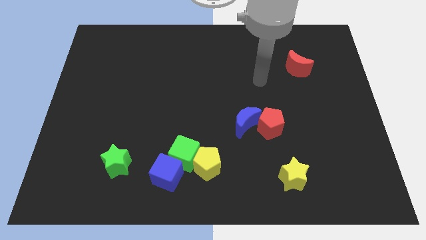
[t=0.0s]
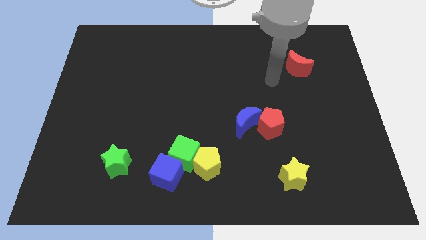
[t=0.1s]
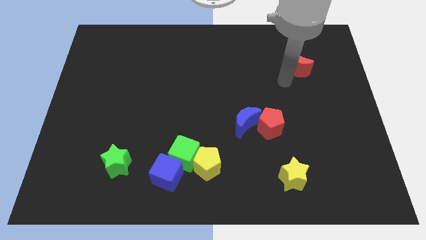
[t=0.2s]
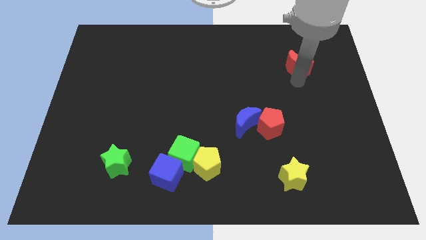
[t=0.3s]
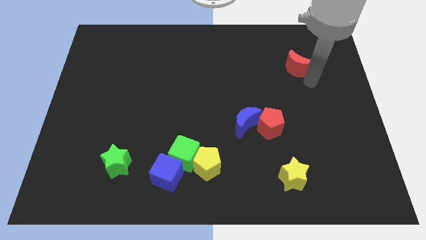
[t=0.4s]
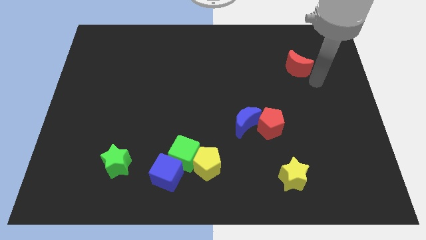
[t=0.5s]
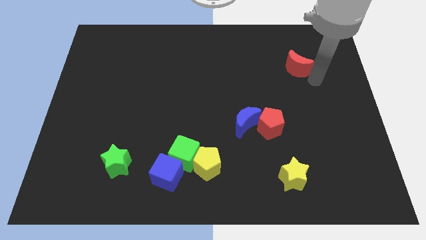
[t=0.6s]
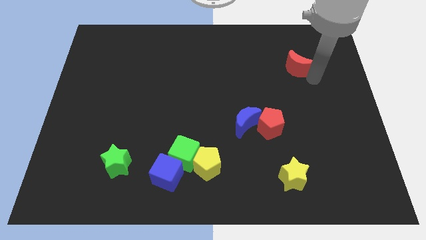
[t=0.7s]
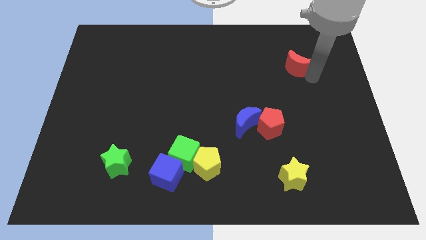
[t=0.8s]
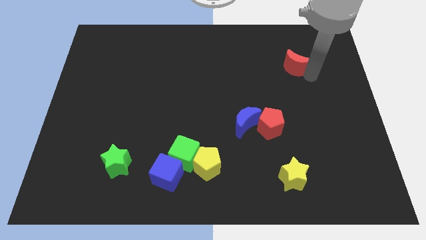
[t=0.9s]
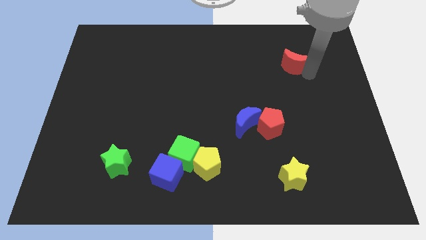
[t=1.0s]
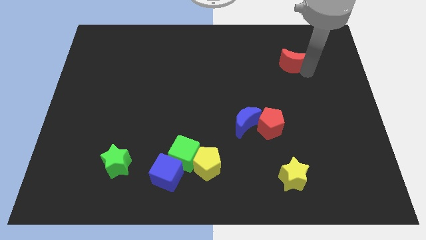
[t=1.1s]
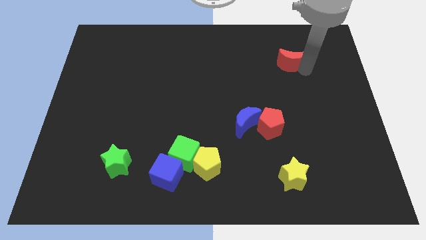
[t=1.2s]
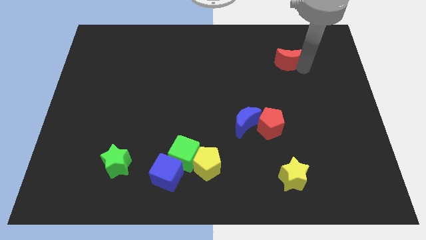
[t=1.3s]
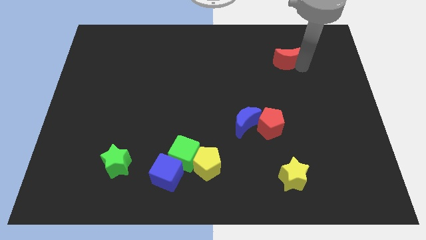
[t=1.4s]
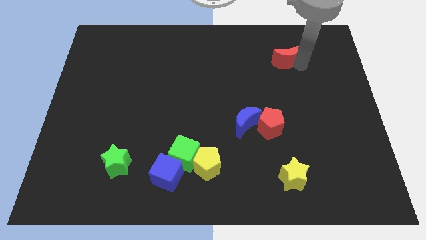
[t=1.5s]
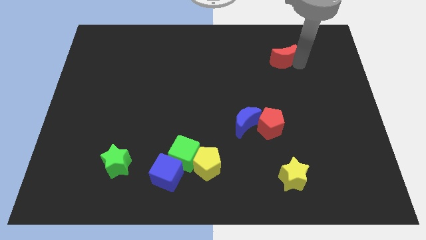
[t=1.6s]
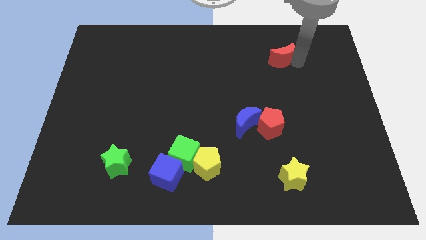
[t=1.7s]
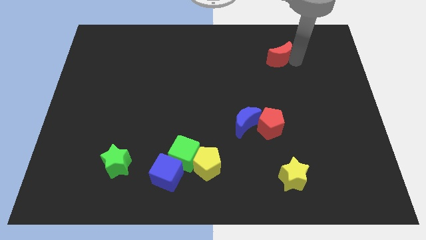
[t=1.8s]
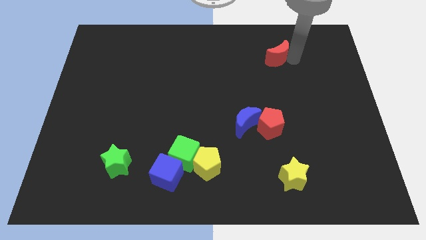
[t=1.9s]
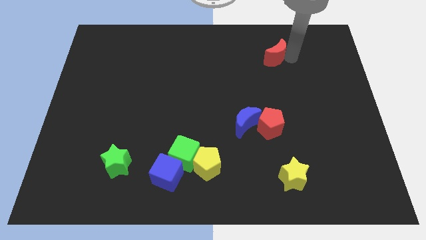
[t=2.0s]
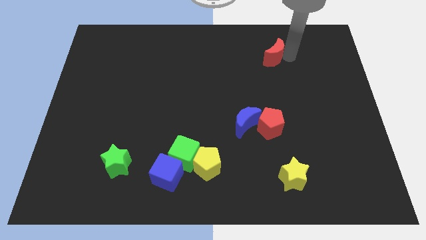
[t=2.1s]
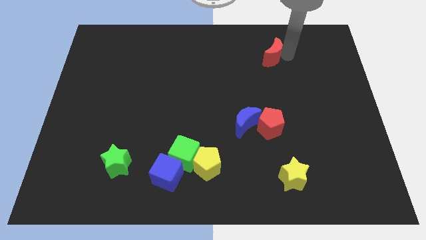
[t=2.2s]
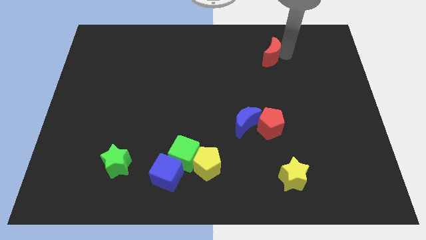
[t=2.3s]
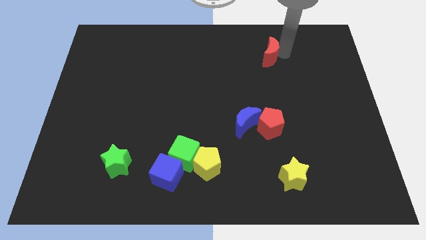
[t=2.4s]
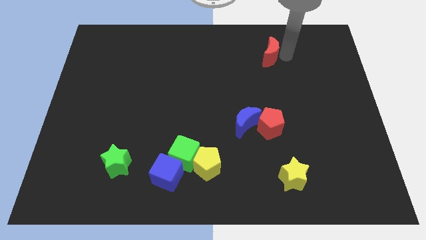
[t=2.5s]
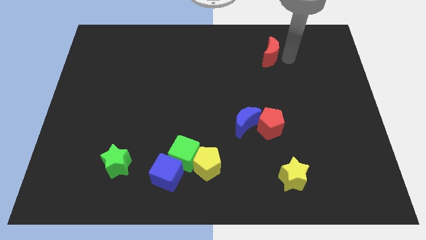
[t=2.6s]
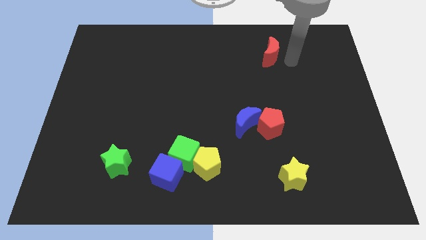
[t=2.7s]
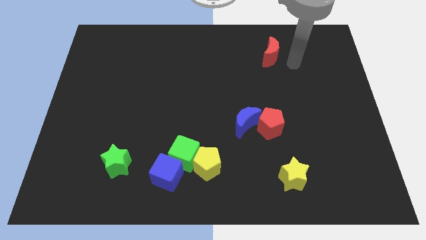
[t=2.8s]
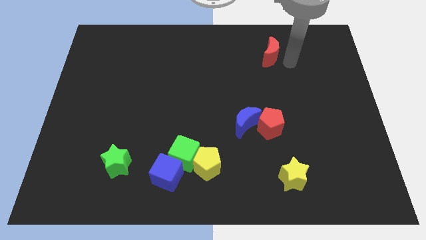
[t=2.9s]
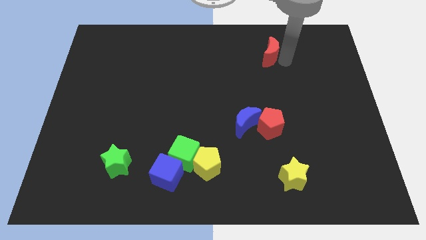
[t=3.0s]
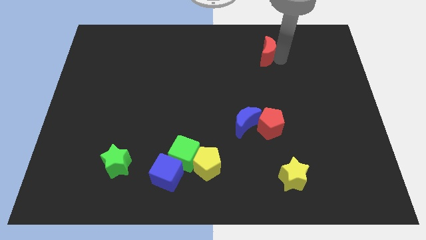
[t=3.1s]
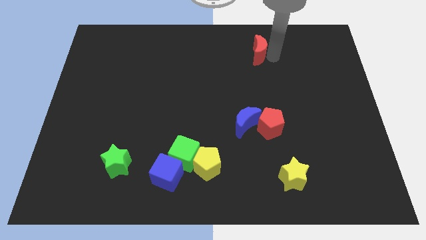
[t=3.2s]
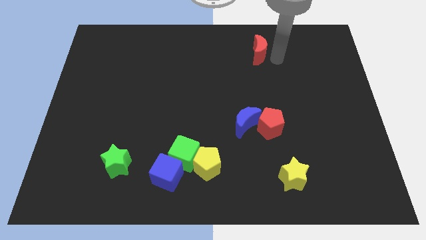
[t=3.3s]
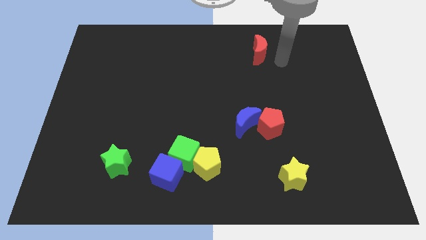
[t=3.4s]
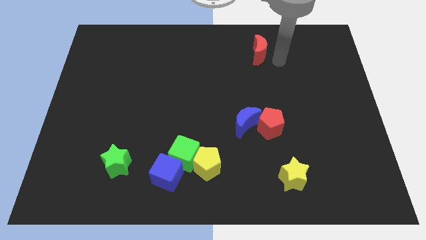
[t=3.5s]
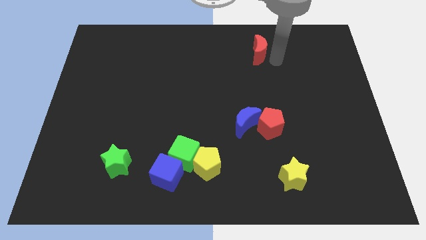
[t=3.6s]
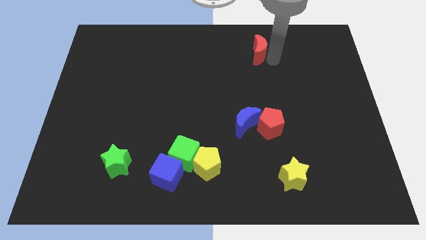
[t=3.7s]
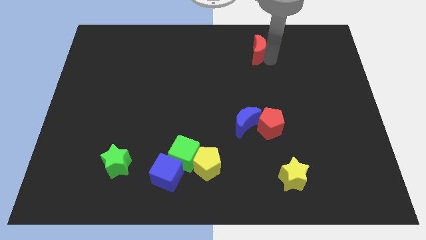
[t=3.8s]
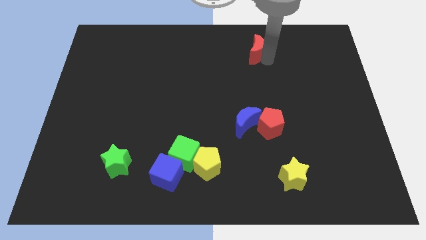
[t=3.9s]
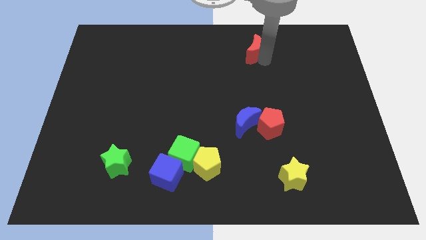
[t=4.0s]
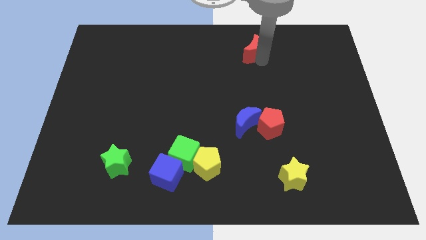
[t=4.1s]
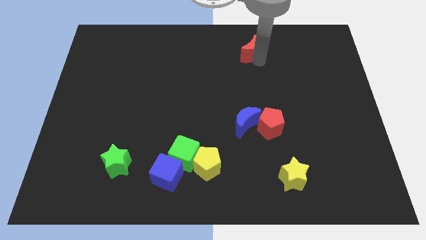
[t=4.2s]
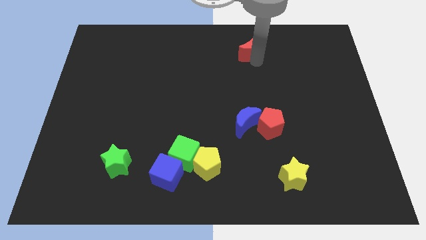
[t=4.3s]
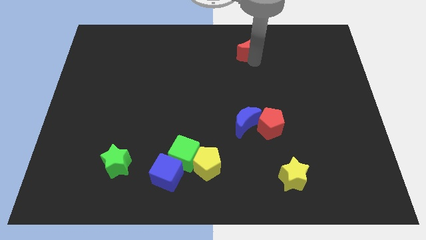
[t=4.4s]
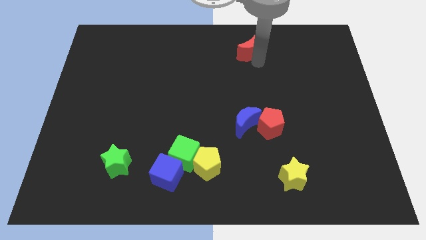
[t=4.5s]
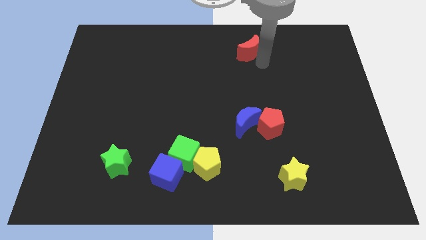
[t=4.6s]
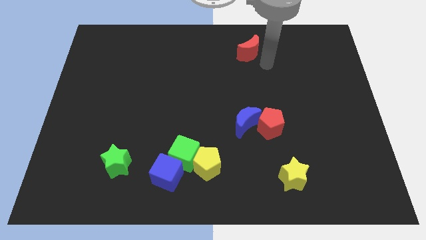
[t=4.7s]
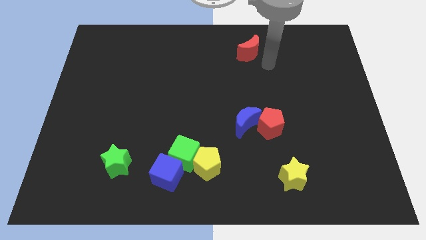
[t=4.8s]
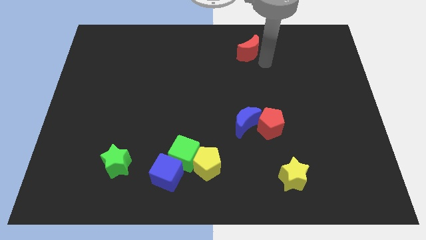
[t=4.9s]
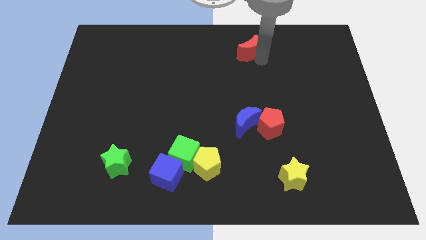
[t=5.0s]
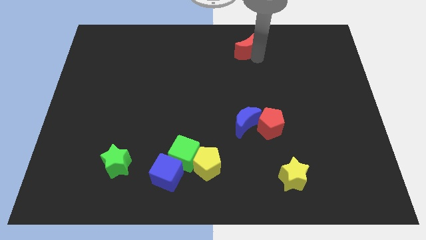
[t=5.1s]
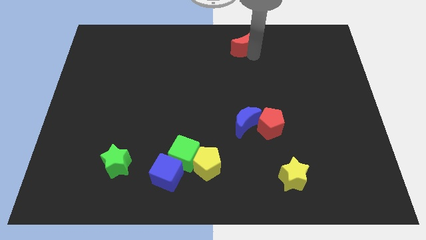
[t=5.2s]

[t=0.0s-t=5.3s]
push the red moon to the towards your base

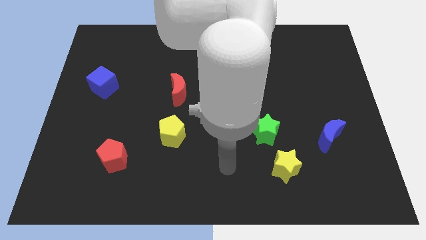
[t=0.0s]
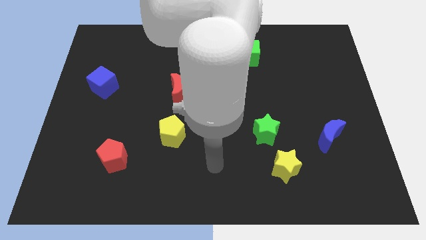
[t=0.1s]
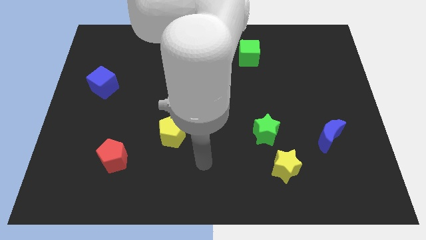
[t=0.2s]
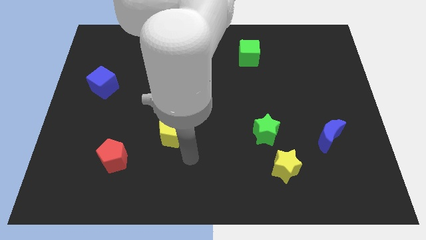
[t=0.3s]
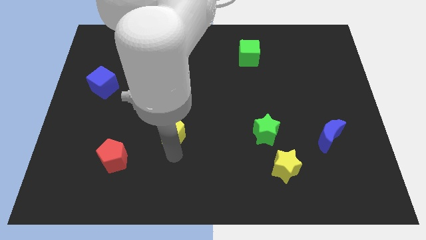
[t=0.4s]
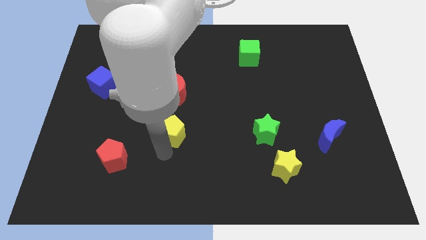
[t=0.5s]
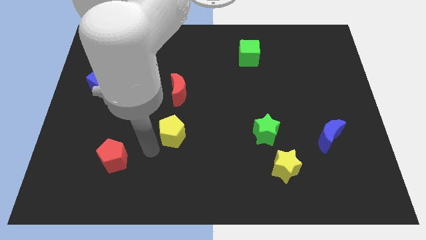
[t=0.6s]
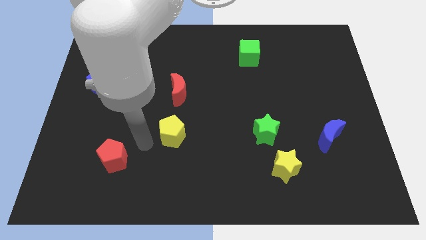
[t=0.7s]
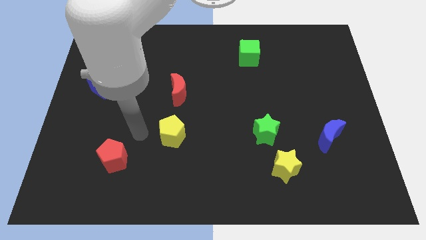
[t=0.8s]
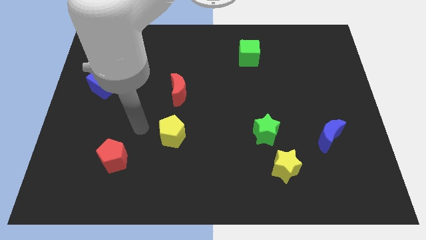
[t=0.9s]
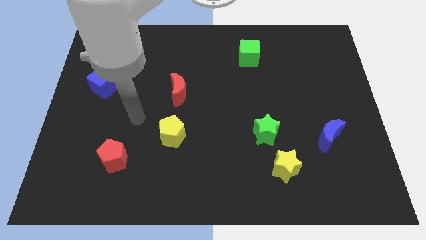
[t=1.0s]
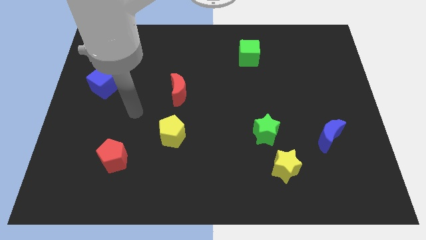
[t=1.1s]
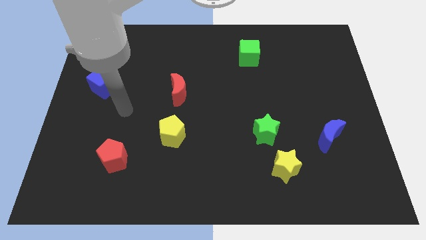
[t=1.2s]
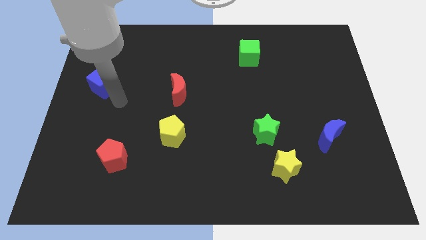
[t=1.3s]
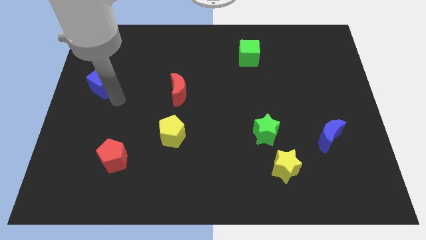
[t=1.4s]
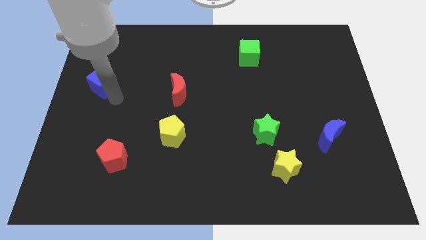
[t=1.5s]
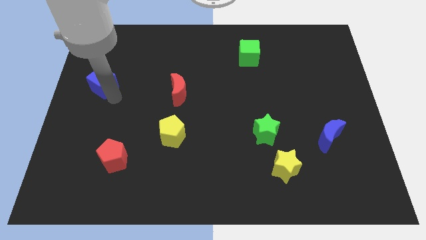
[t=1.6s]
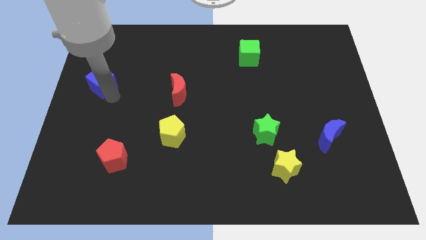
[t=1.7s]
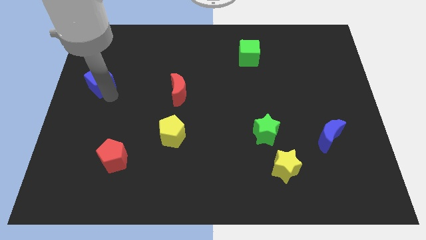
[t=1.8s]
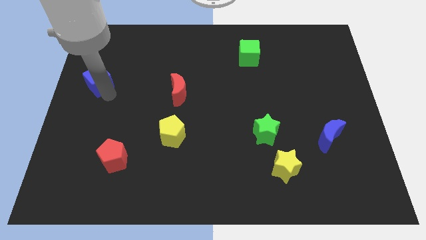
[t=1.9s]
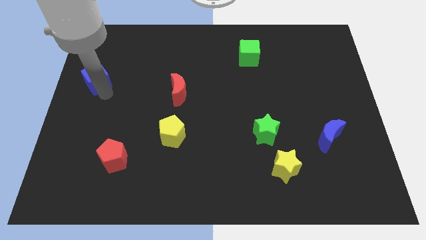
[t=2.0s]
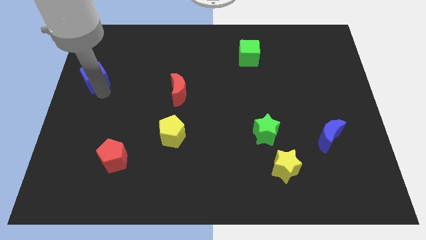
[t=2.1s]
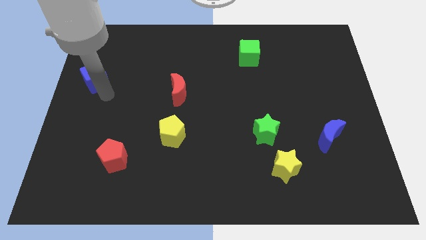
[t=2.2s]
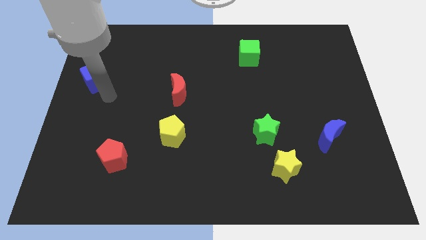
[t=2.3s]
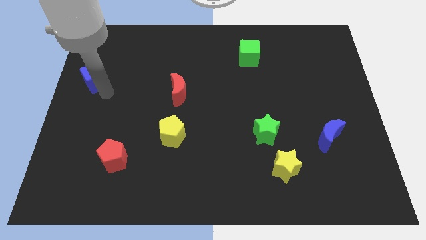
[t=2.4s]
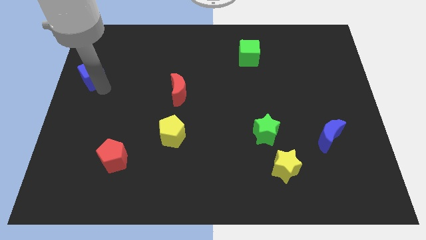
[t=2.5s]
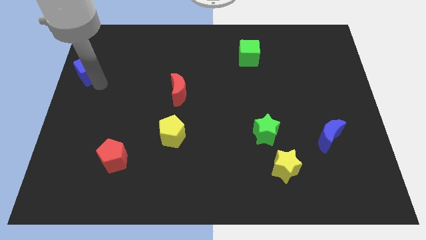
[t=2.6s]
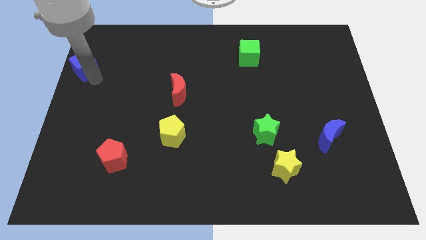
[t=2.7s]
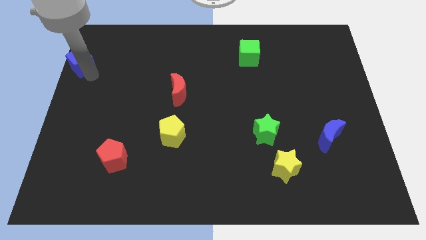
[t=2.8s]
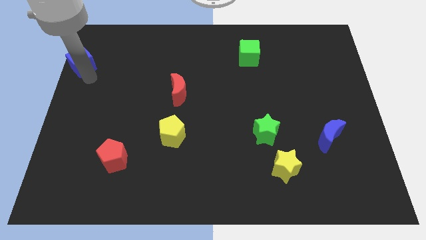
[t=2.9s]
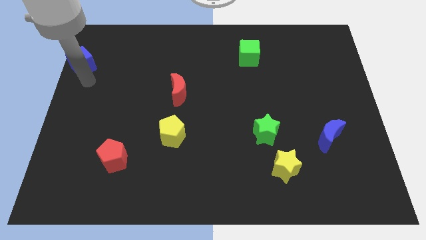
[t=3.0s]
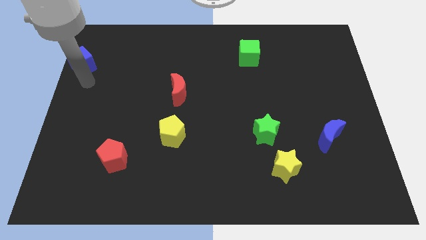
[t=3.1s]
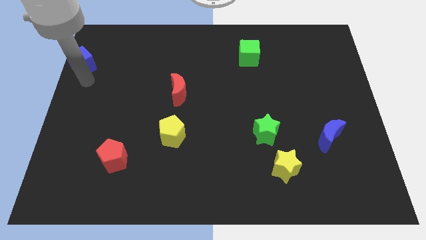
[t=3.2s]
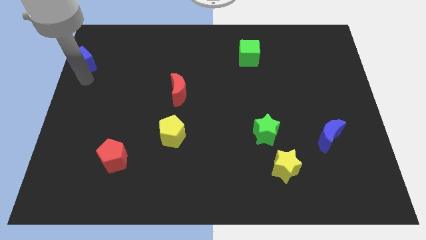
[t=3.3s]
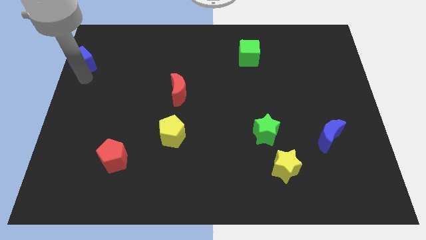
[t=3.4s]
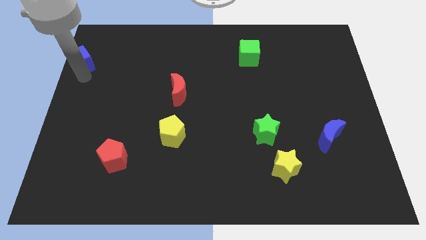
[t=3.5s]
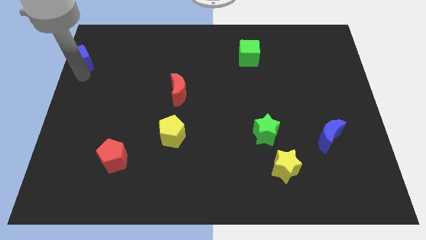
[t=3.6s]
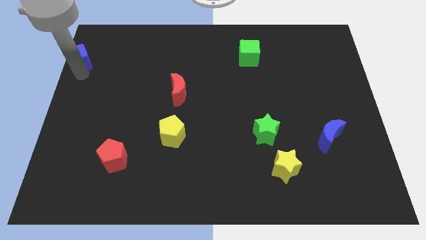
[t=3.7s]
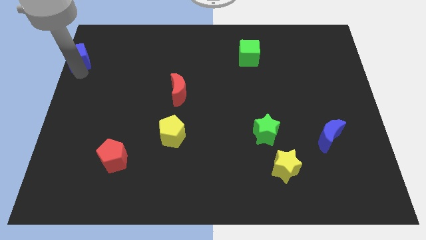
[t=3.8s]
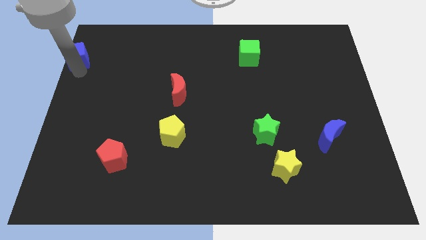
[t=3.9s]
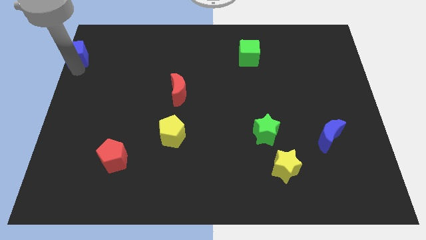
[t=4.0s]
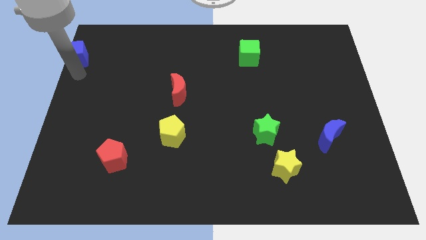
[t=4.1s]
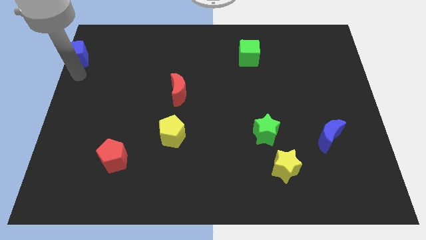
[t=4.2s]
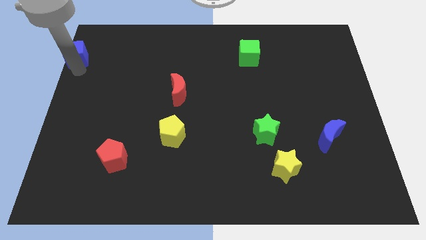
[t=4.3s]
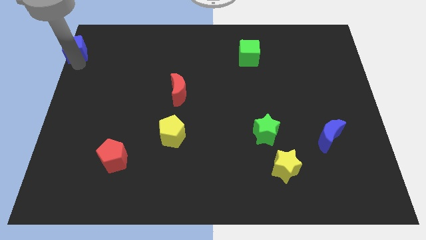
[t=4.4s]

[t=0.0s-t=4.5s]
push the blue cube to the top left of the board
